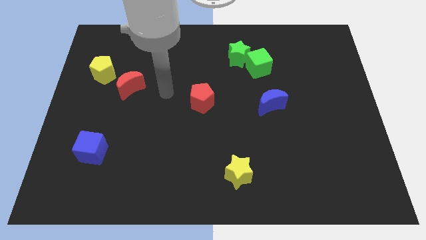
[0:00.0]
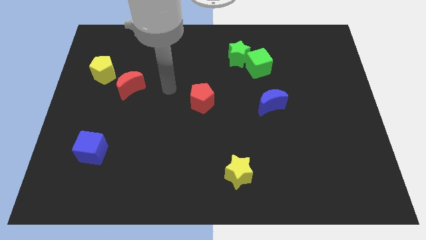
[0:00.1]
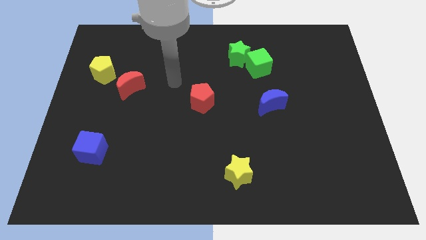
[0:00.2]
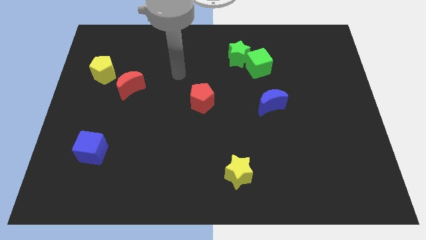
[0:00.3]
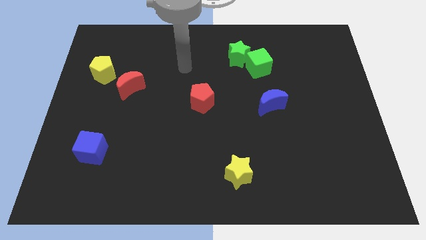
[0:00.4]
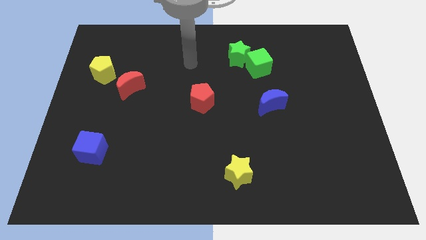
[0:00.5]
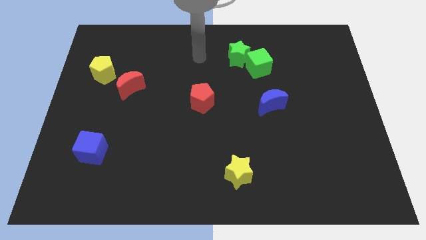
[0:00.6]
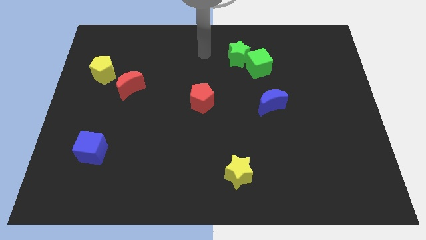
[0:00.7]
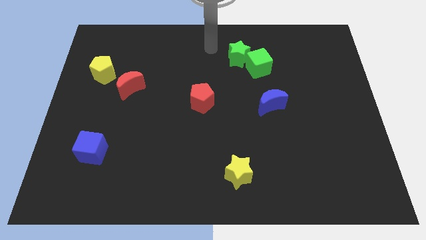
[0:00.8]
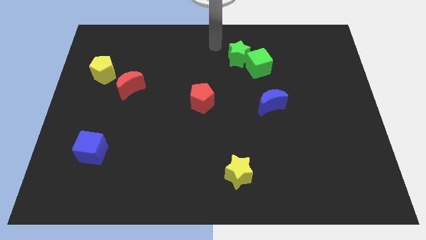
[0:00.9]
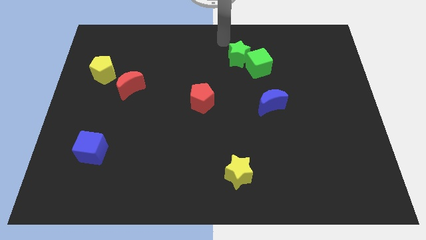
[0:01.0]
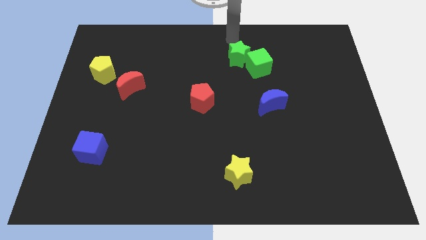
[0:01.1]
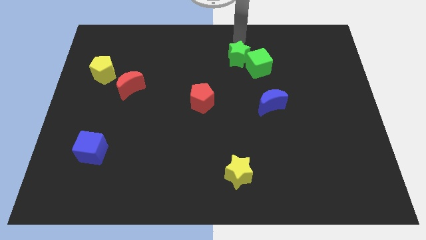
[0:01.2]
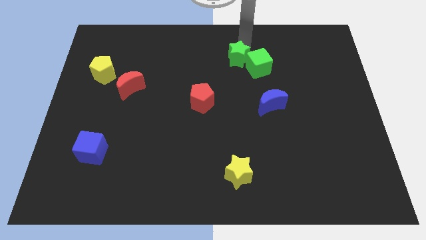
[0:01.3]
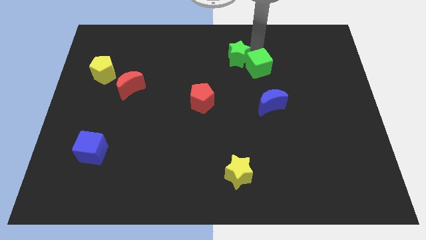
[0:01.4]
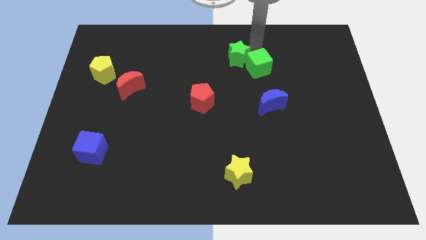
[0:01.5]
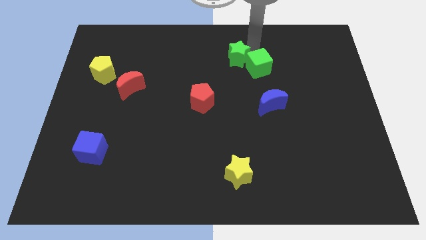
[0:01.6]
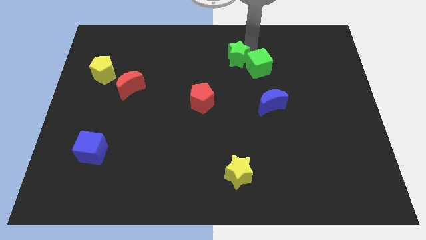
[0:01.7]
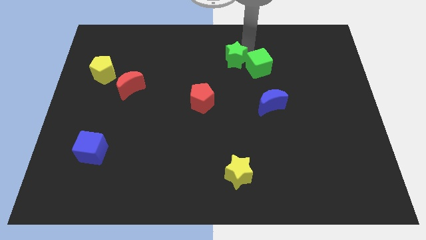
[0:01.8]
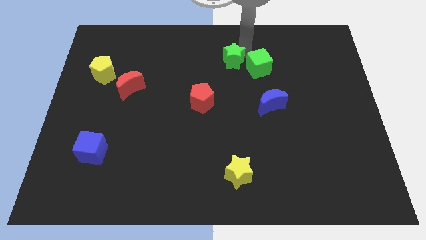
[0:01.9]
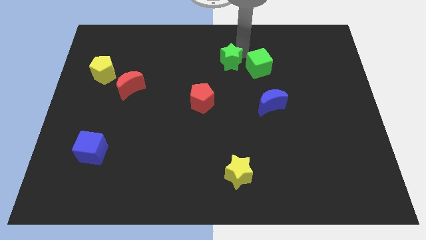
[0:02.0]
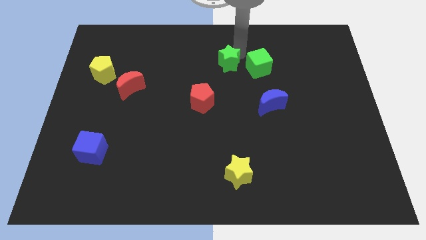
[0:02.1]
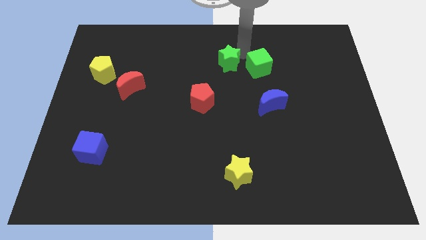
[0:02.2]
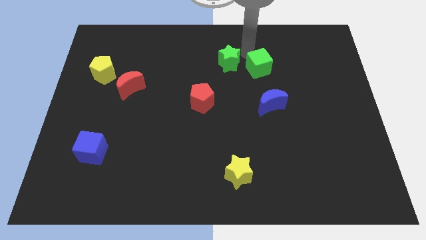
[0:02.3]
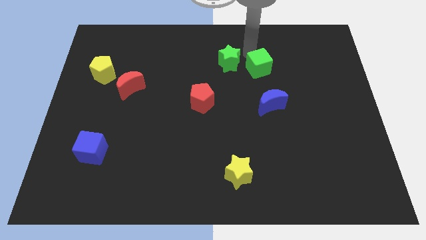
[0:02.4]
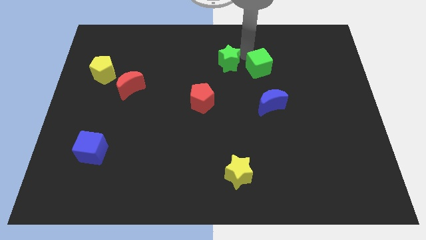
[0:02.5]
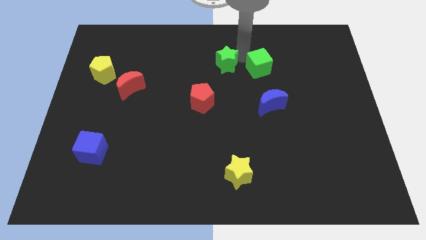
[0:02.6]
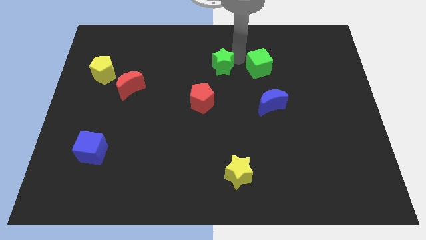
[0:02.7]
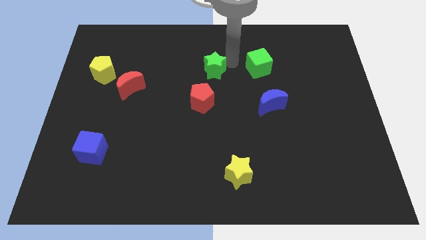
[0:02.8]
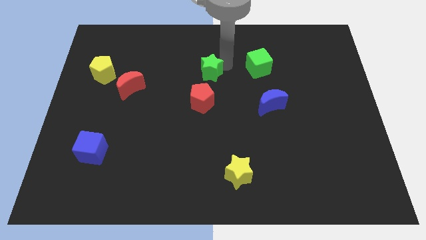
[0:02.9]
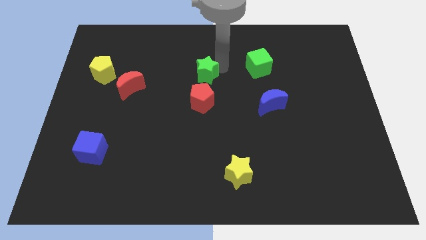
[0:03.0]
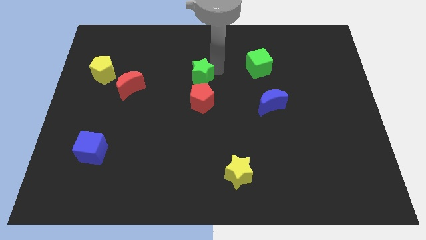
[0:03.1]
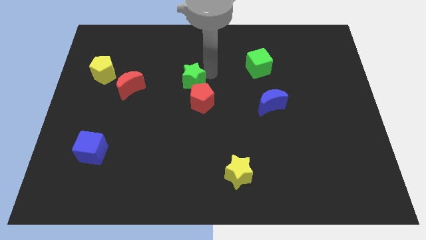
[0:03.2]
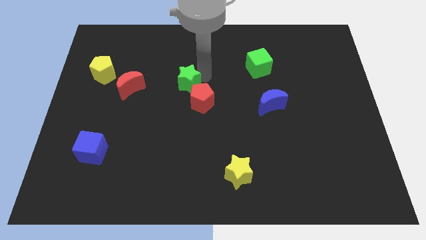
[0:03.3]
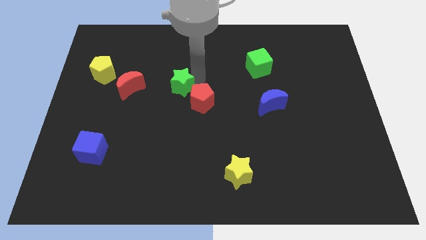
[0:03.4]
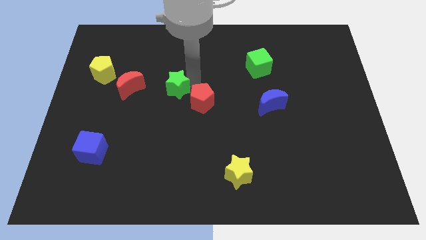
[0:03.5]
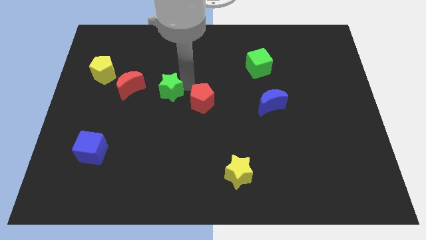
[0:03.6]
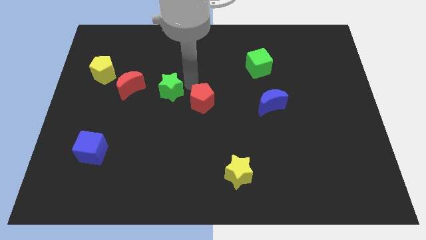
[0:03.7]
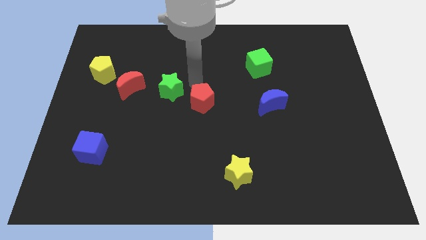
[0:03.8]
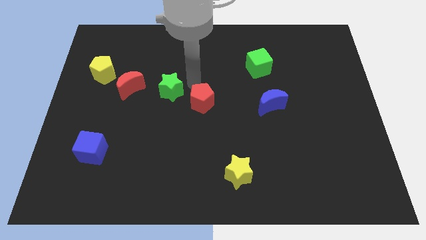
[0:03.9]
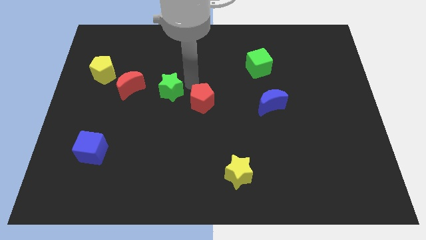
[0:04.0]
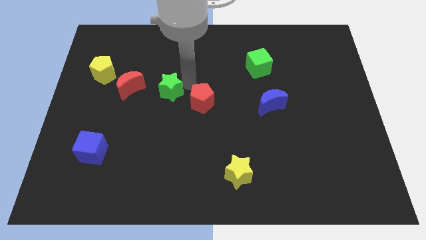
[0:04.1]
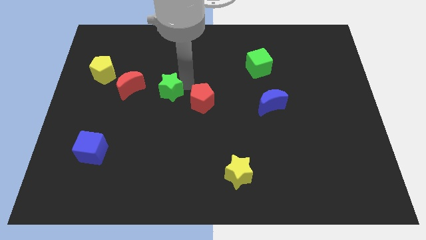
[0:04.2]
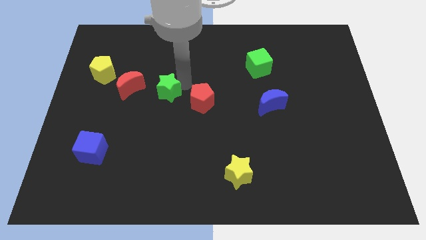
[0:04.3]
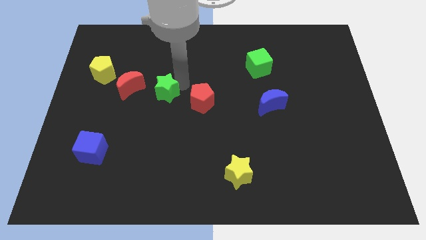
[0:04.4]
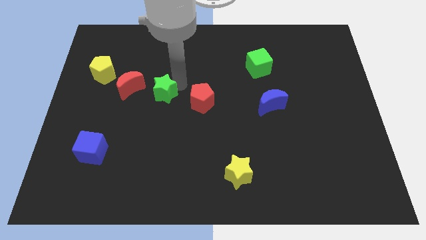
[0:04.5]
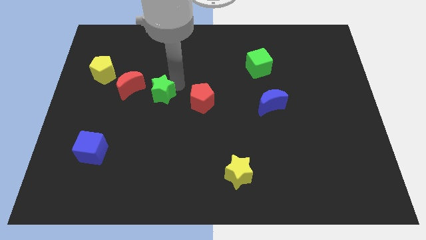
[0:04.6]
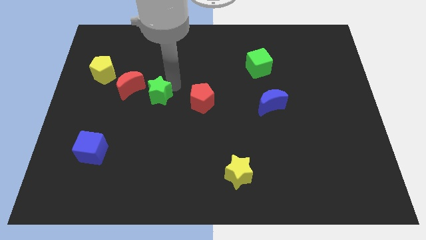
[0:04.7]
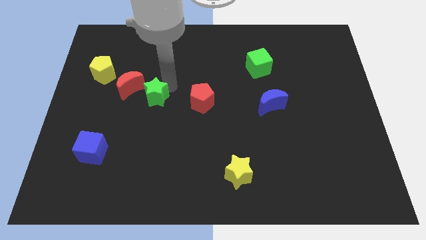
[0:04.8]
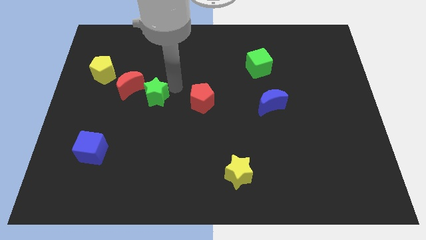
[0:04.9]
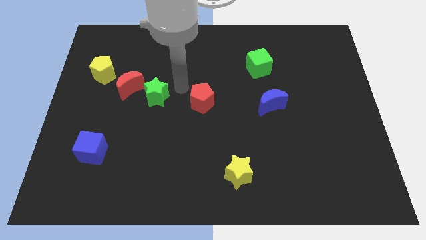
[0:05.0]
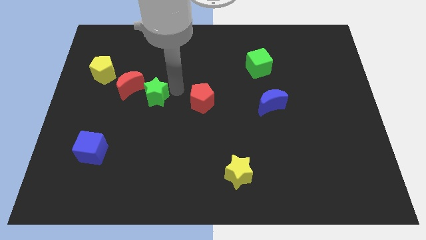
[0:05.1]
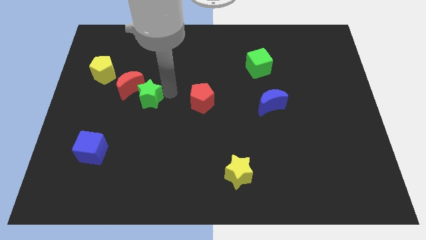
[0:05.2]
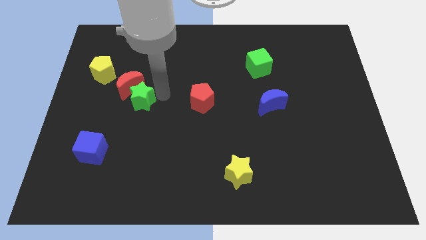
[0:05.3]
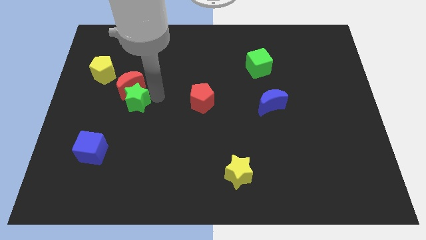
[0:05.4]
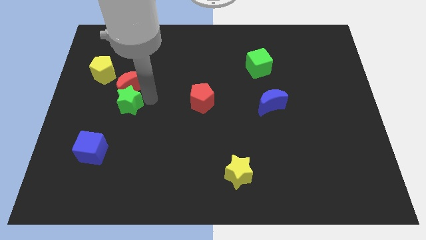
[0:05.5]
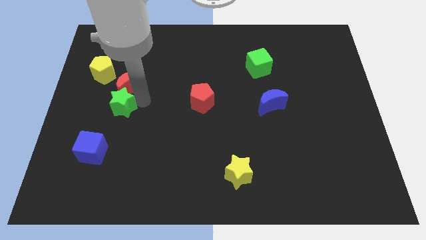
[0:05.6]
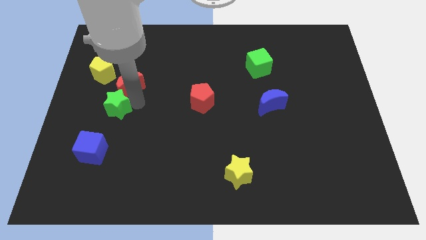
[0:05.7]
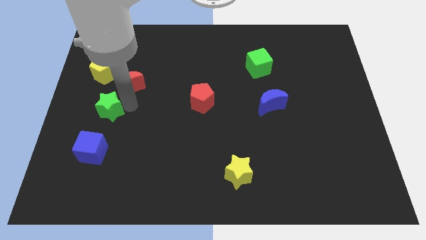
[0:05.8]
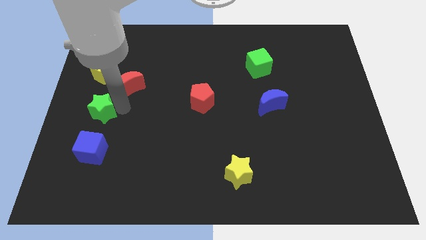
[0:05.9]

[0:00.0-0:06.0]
put the green star to the center left

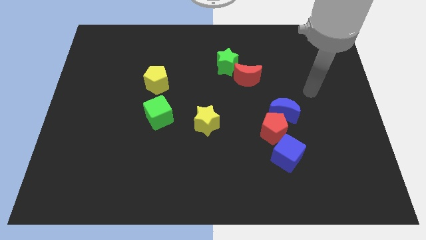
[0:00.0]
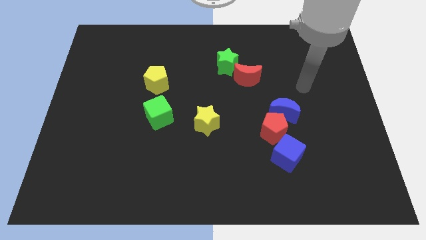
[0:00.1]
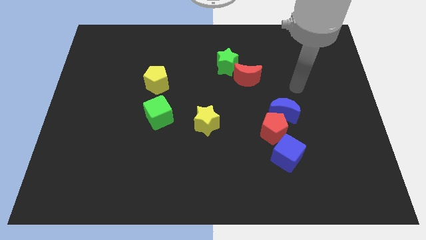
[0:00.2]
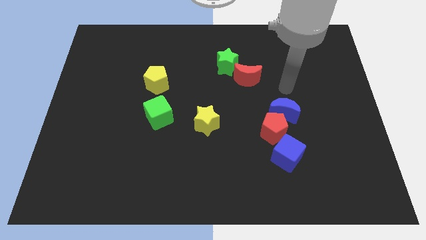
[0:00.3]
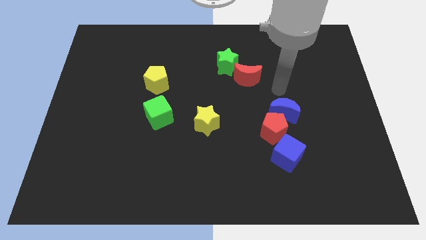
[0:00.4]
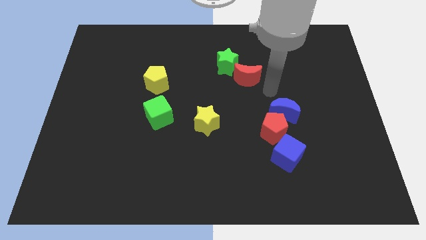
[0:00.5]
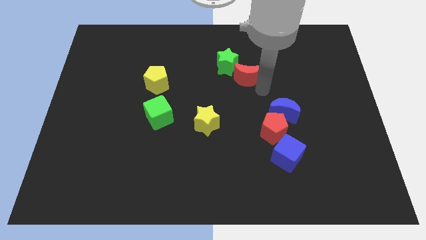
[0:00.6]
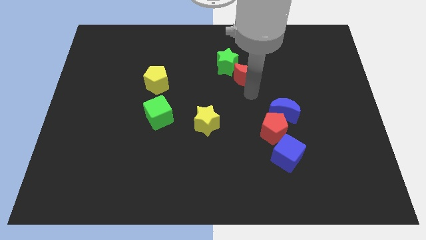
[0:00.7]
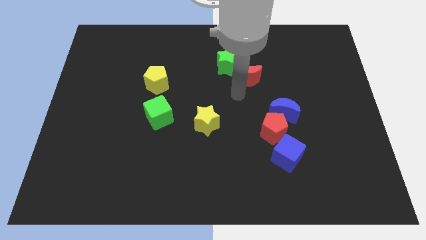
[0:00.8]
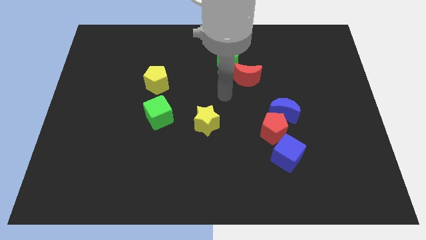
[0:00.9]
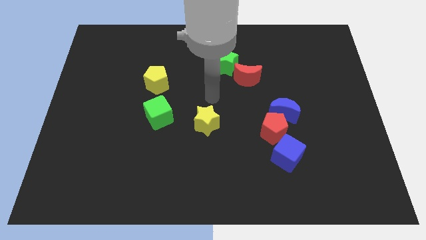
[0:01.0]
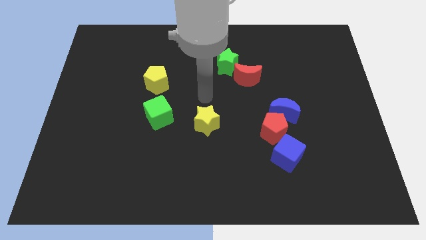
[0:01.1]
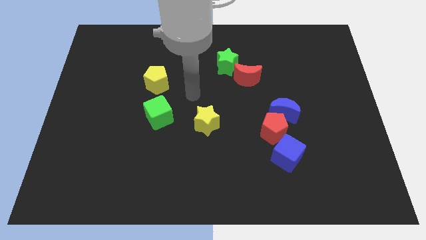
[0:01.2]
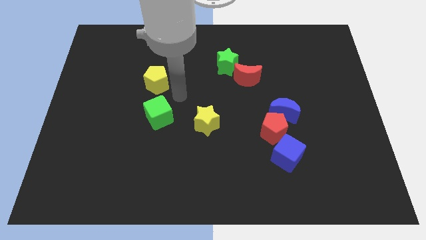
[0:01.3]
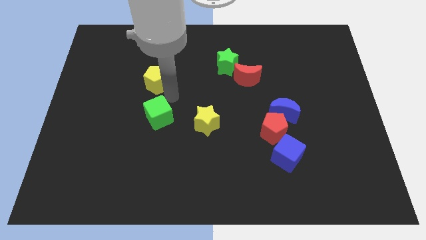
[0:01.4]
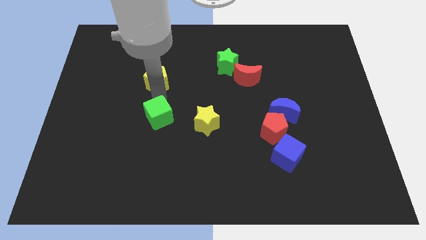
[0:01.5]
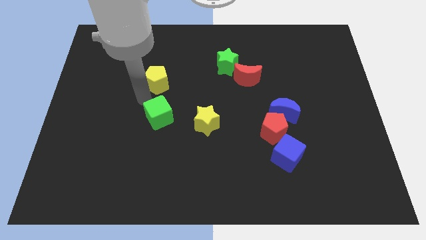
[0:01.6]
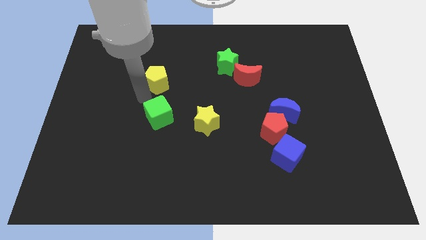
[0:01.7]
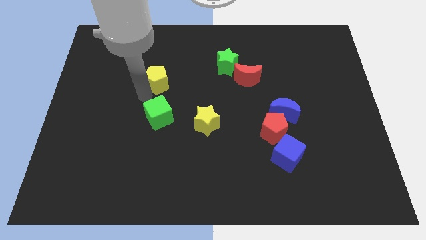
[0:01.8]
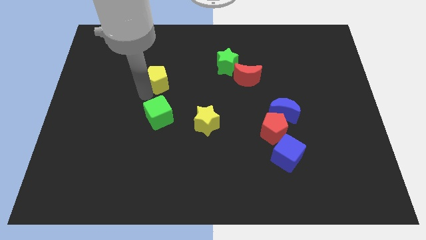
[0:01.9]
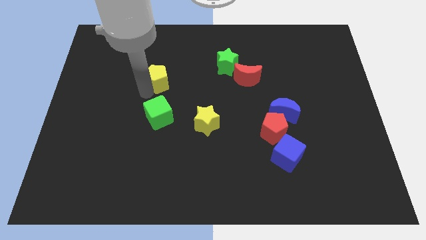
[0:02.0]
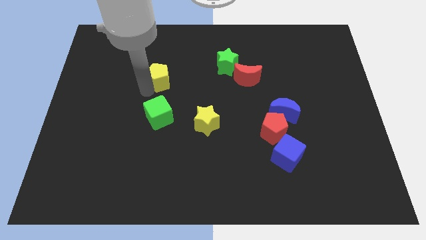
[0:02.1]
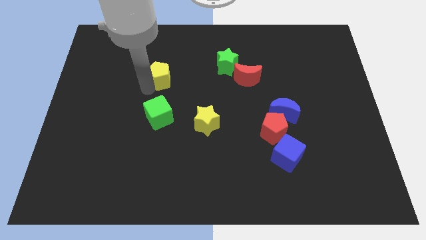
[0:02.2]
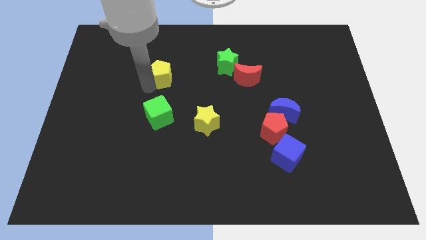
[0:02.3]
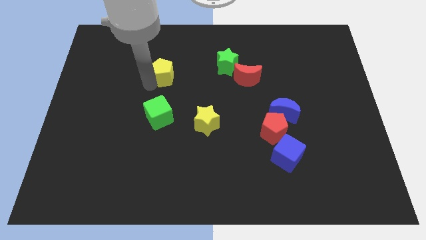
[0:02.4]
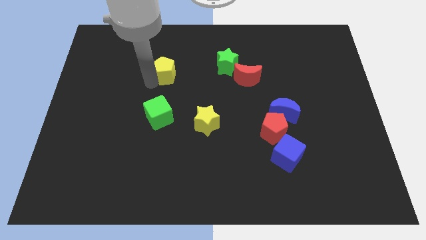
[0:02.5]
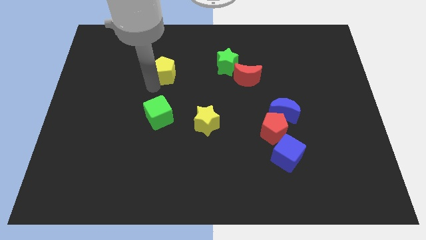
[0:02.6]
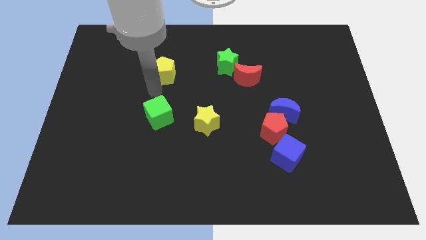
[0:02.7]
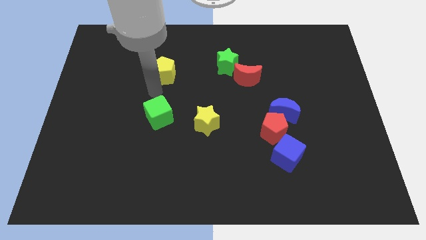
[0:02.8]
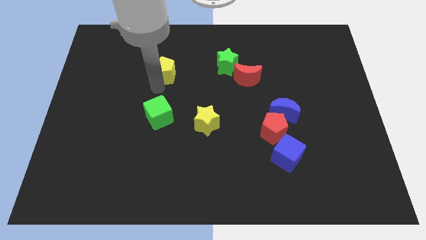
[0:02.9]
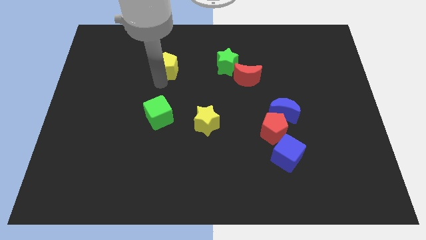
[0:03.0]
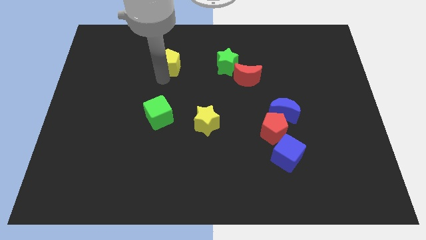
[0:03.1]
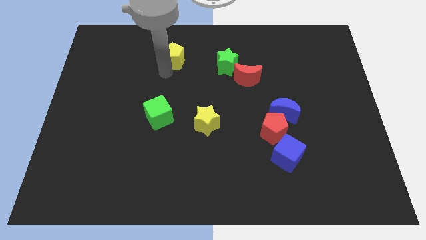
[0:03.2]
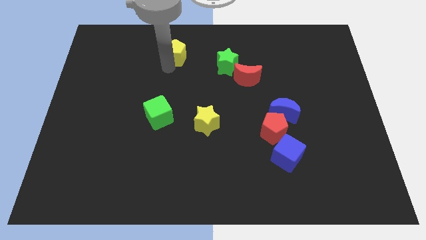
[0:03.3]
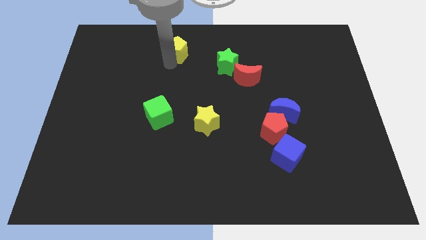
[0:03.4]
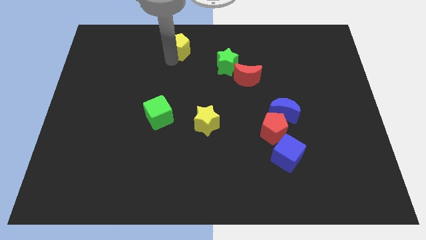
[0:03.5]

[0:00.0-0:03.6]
move the yellow pentagon to the top
